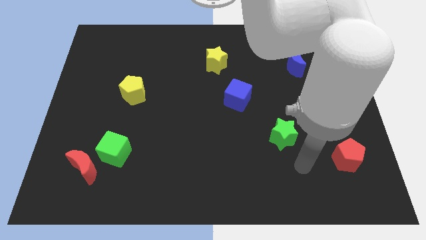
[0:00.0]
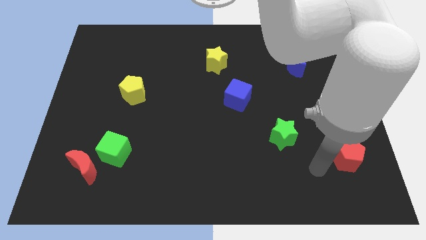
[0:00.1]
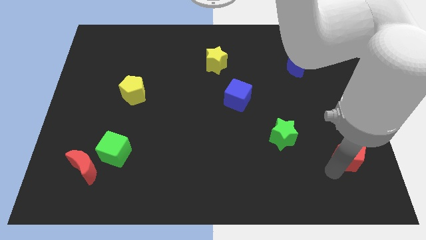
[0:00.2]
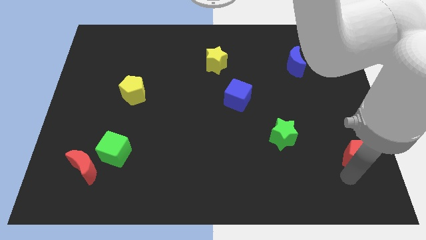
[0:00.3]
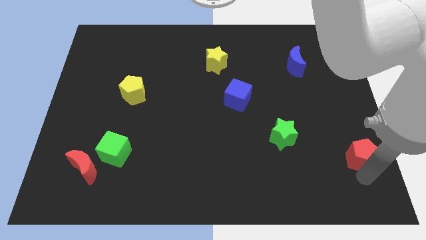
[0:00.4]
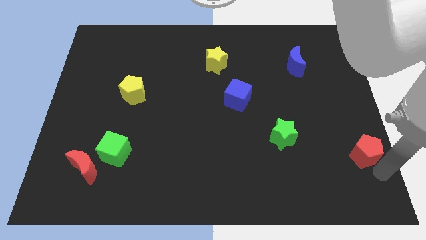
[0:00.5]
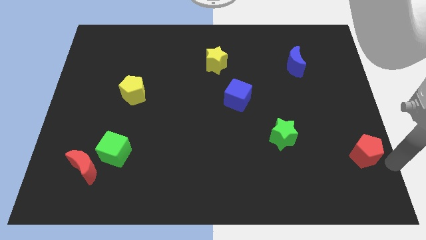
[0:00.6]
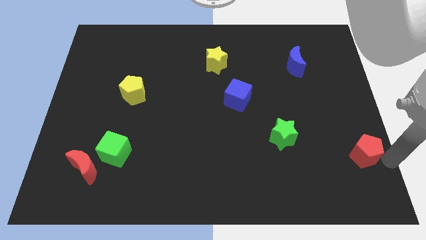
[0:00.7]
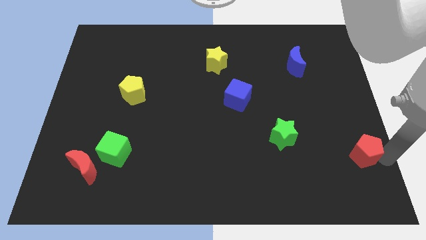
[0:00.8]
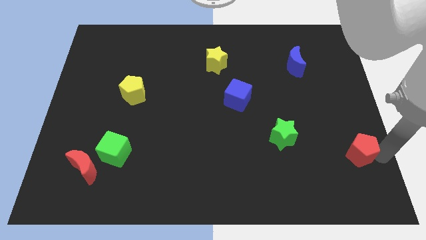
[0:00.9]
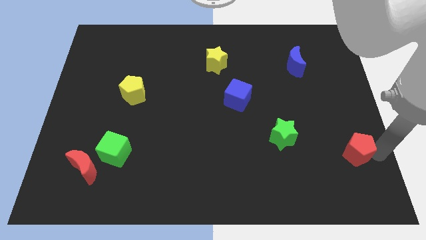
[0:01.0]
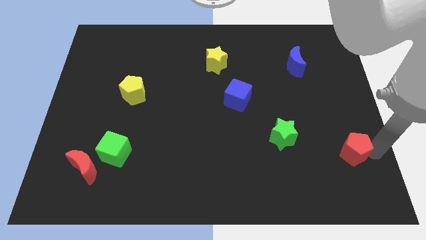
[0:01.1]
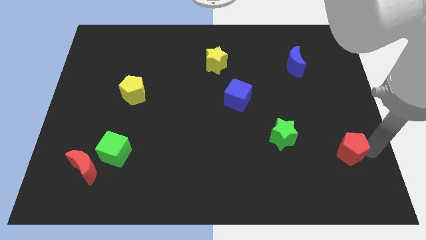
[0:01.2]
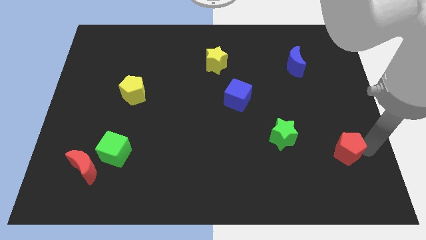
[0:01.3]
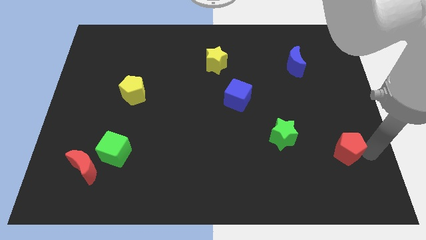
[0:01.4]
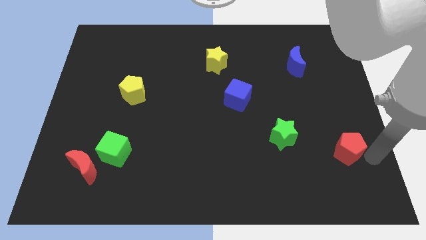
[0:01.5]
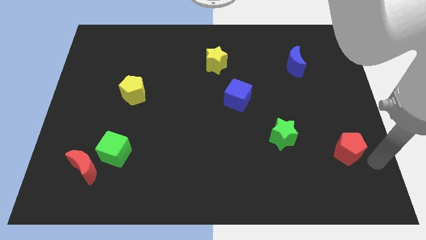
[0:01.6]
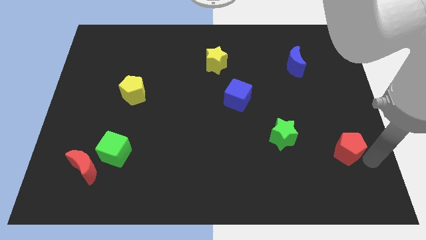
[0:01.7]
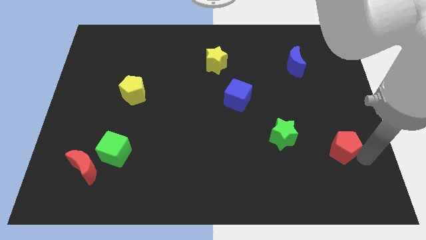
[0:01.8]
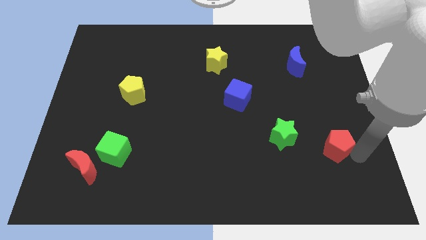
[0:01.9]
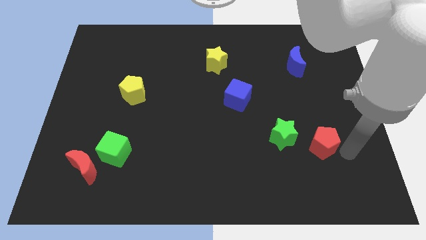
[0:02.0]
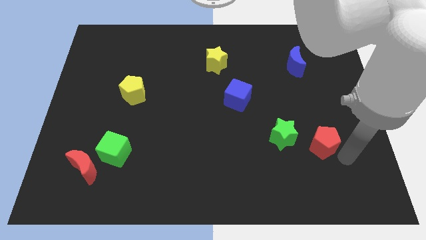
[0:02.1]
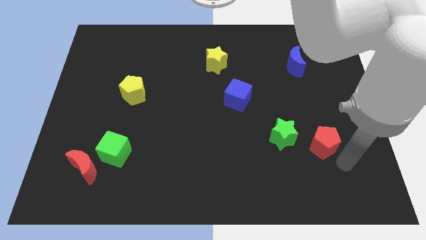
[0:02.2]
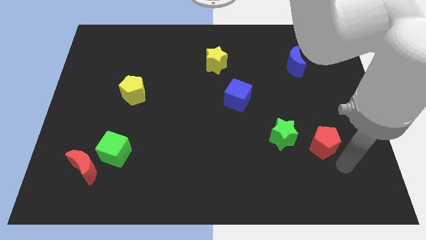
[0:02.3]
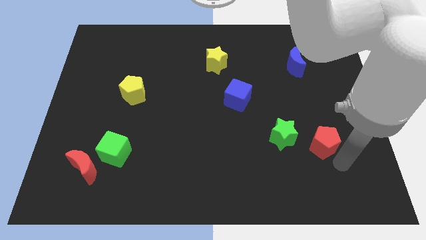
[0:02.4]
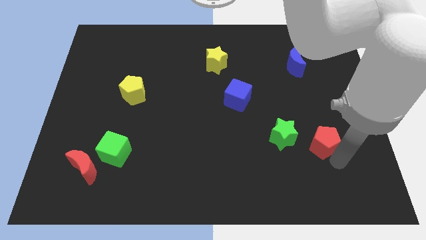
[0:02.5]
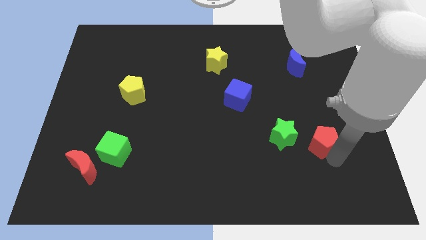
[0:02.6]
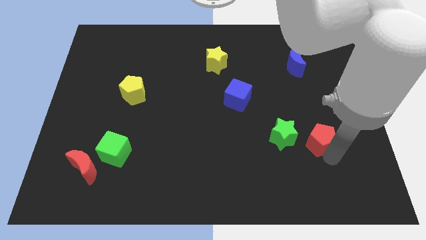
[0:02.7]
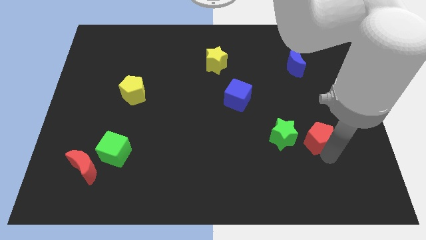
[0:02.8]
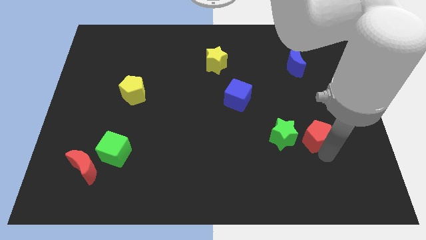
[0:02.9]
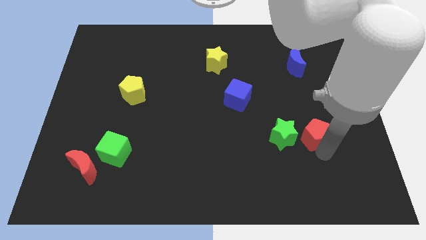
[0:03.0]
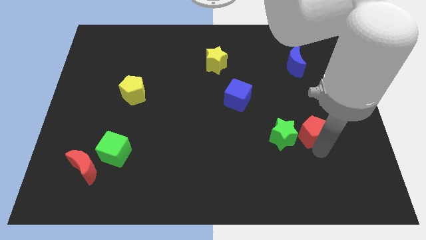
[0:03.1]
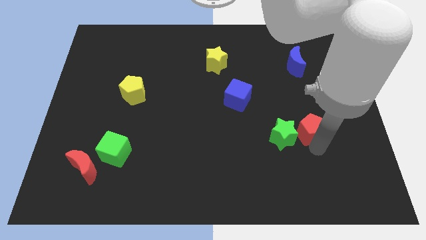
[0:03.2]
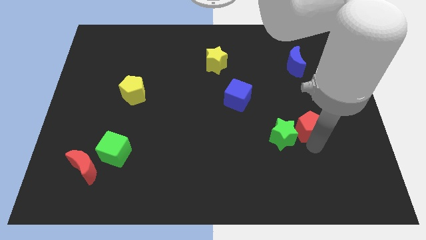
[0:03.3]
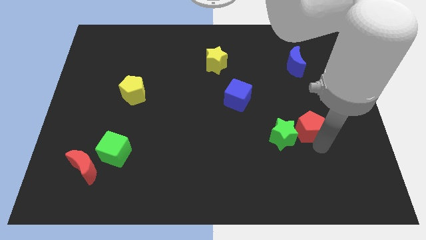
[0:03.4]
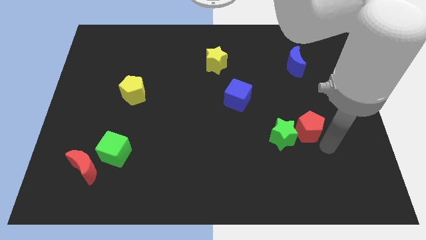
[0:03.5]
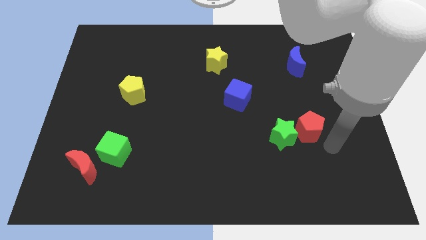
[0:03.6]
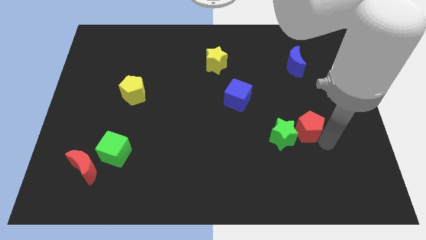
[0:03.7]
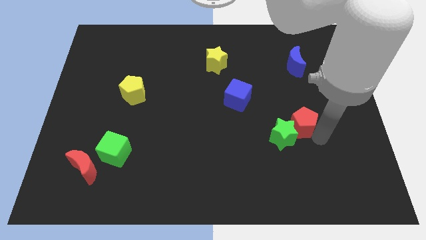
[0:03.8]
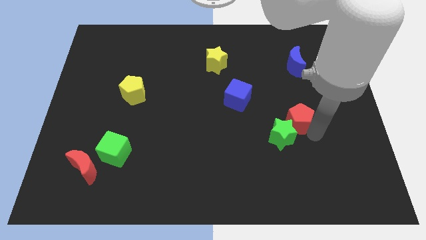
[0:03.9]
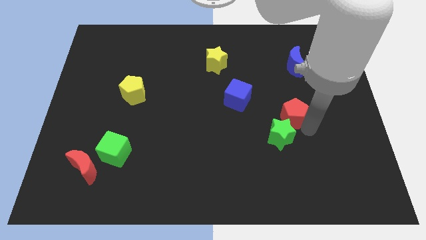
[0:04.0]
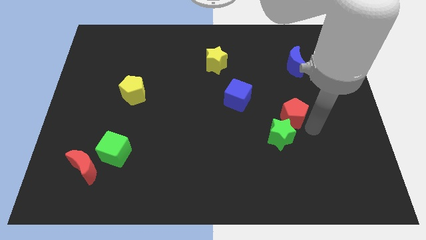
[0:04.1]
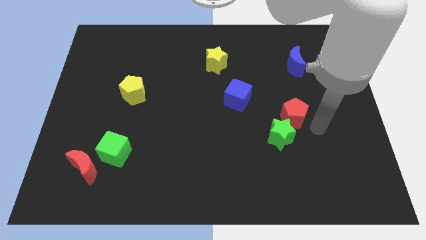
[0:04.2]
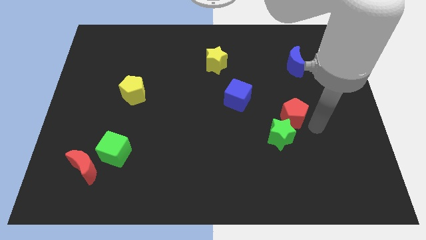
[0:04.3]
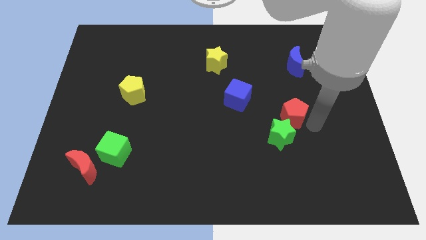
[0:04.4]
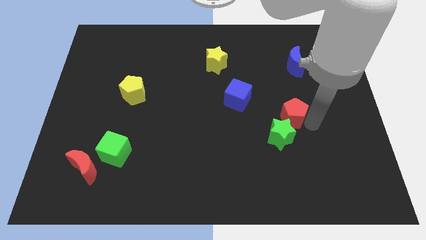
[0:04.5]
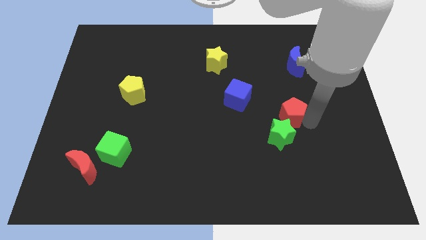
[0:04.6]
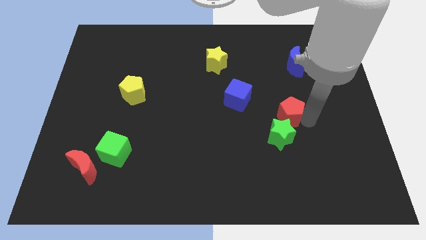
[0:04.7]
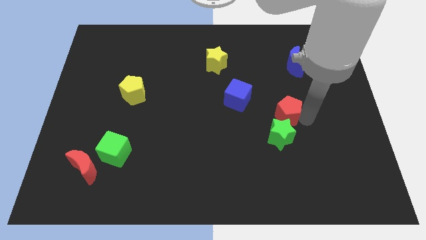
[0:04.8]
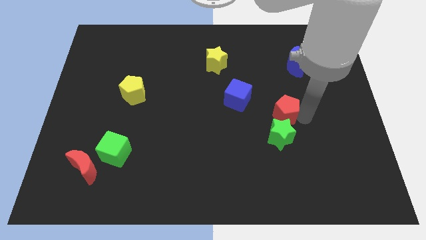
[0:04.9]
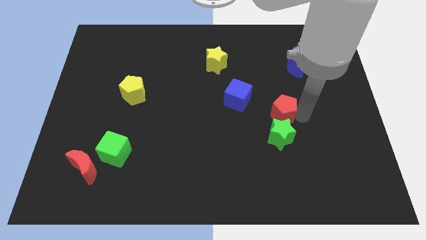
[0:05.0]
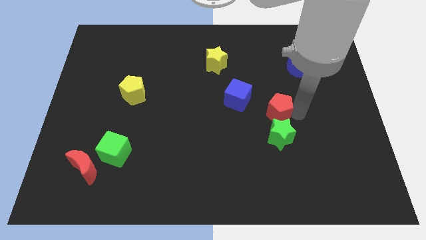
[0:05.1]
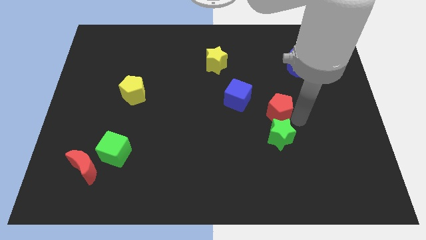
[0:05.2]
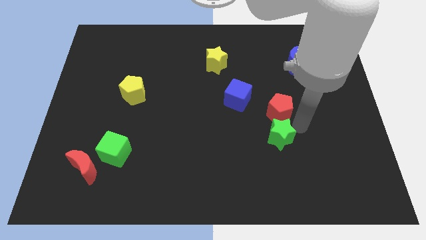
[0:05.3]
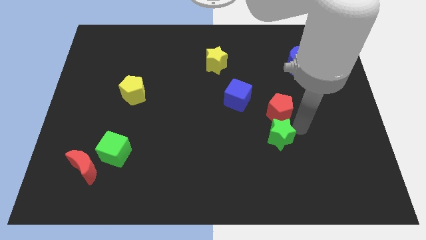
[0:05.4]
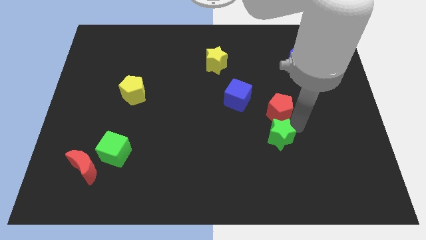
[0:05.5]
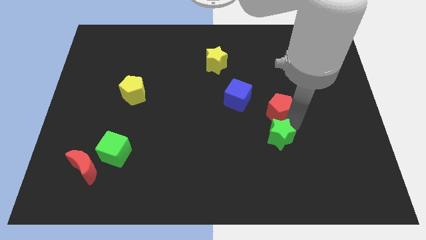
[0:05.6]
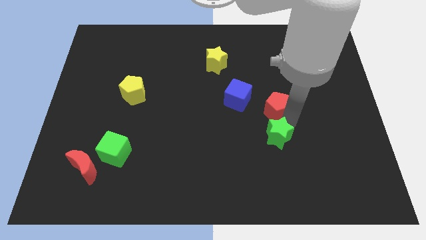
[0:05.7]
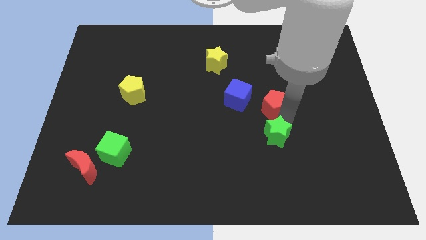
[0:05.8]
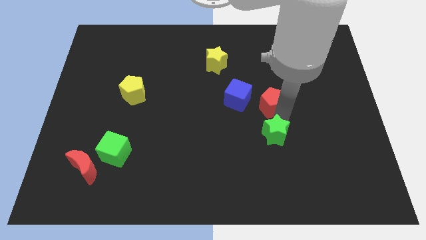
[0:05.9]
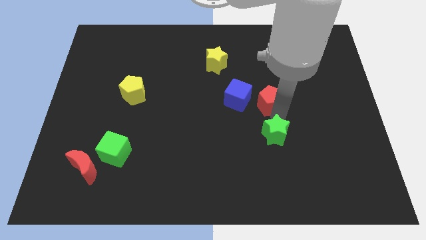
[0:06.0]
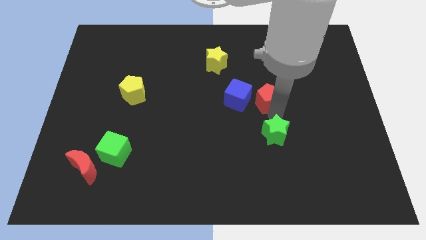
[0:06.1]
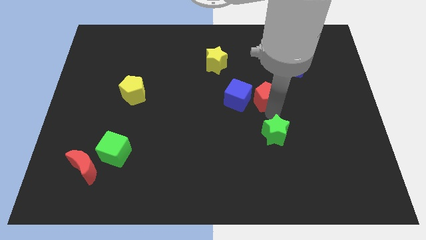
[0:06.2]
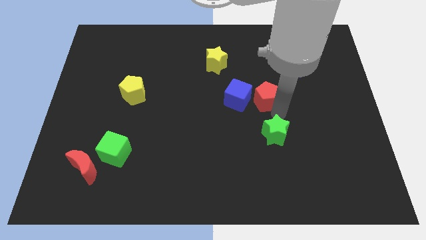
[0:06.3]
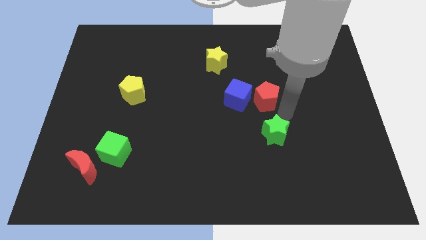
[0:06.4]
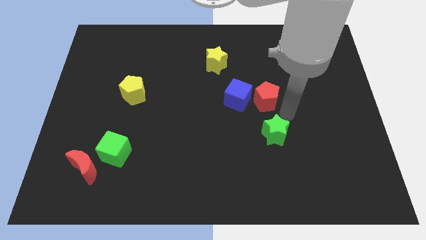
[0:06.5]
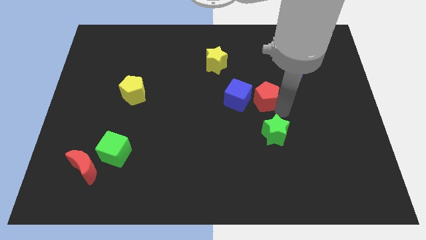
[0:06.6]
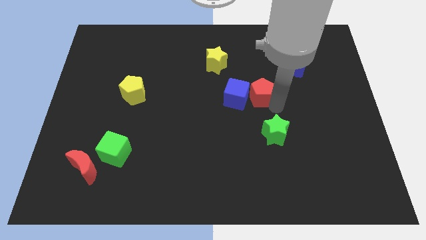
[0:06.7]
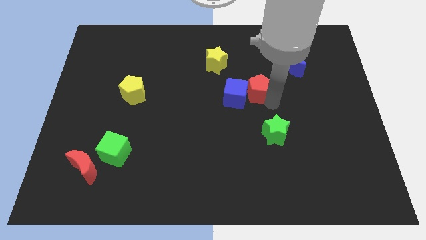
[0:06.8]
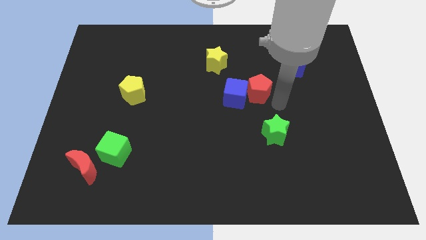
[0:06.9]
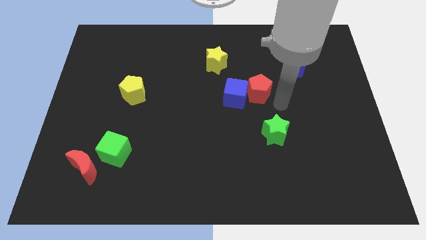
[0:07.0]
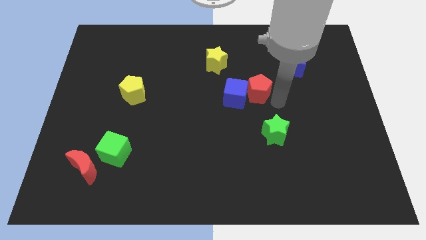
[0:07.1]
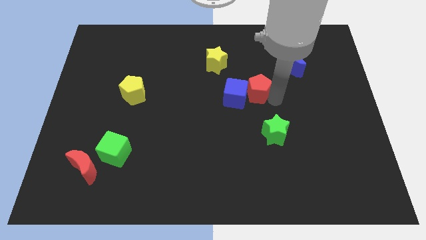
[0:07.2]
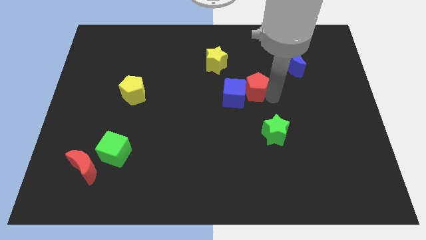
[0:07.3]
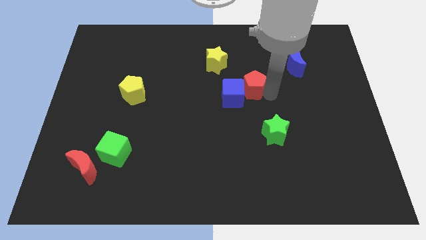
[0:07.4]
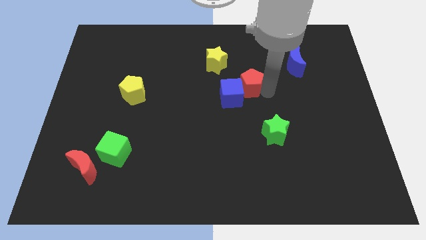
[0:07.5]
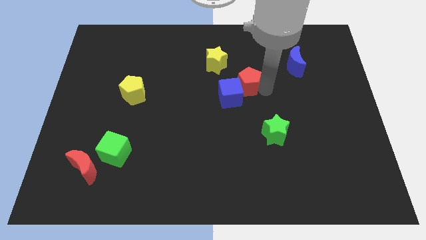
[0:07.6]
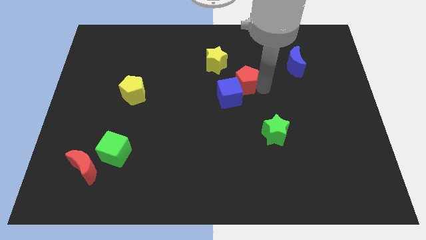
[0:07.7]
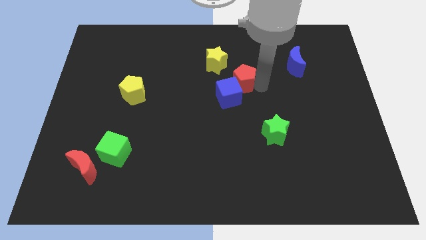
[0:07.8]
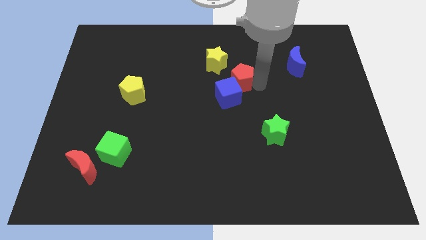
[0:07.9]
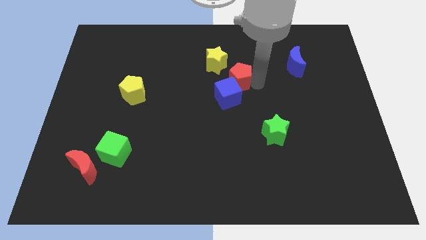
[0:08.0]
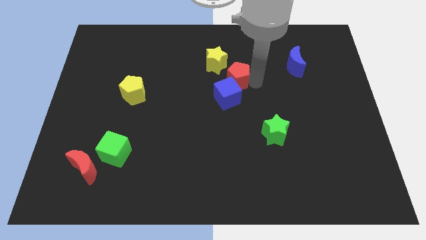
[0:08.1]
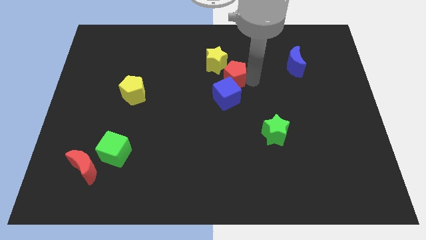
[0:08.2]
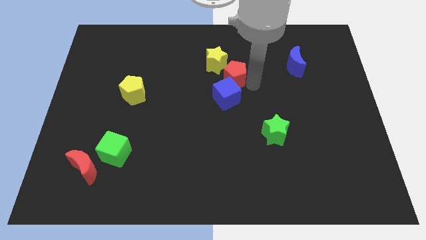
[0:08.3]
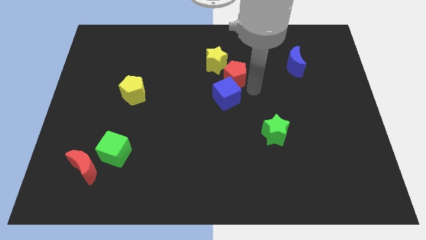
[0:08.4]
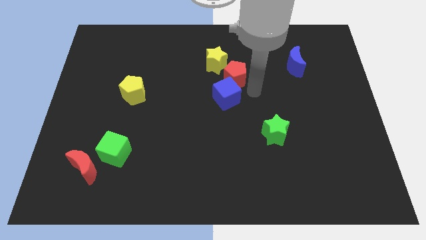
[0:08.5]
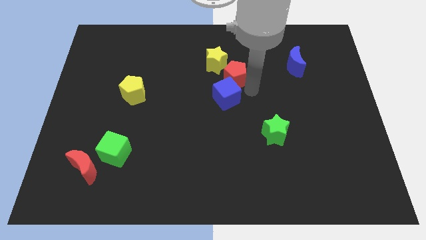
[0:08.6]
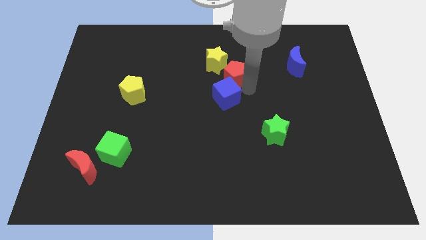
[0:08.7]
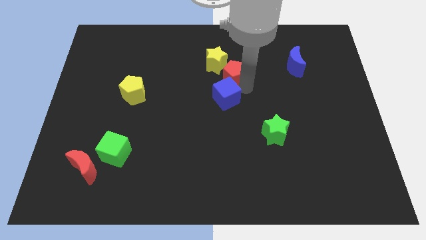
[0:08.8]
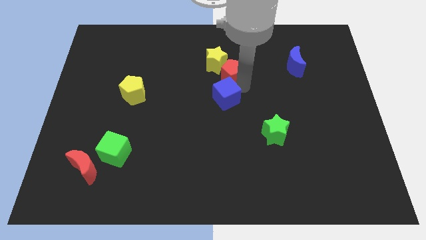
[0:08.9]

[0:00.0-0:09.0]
put the red pentagon next to the yellow star
